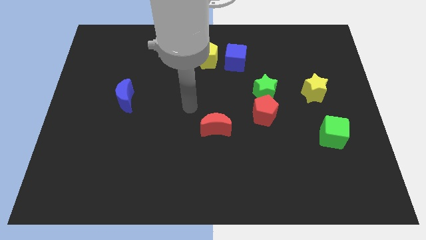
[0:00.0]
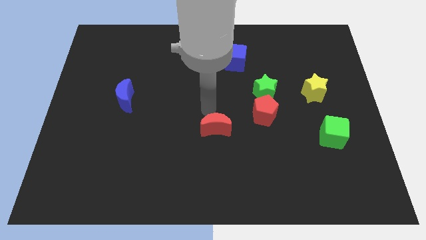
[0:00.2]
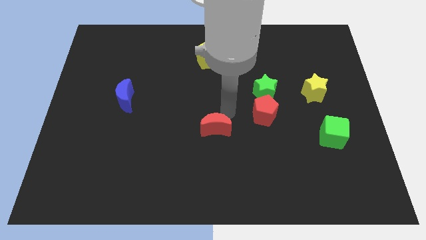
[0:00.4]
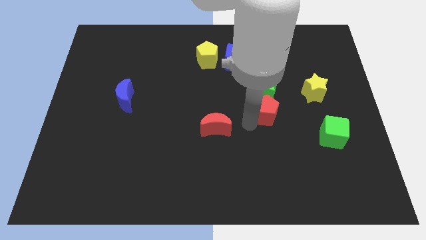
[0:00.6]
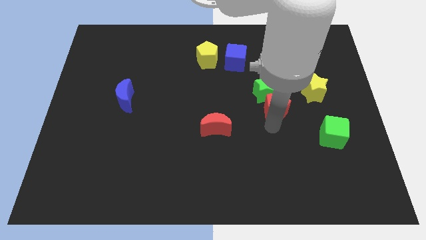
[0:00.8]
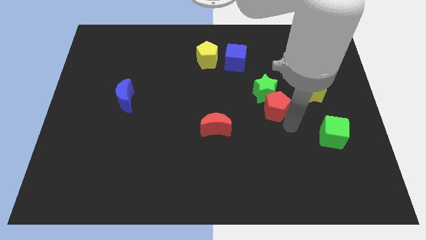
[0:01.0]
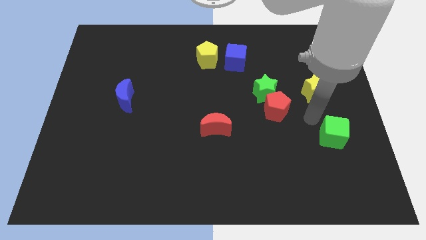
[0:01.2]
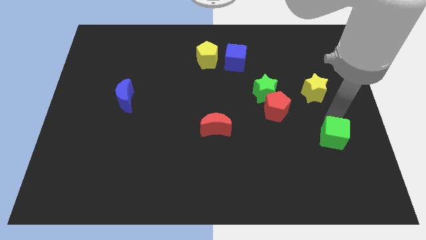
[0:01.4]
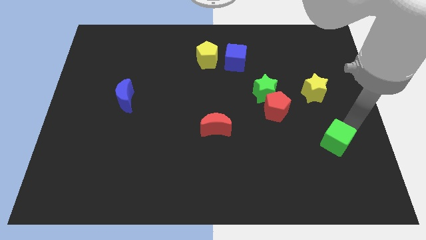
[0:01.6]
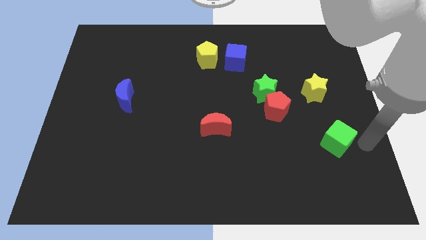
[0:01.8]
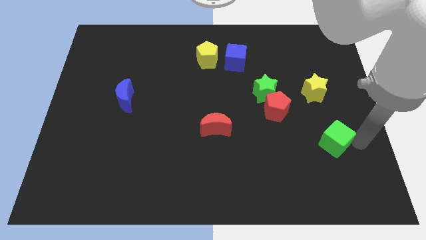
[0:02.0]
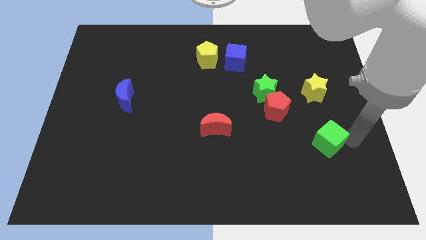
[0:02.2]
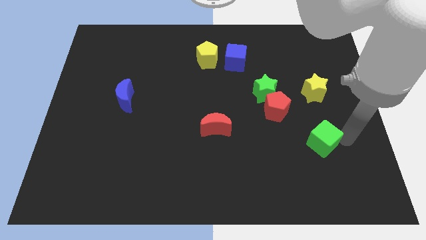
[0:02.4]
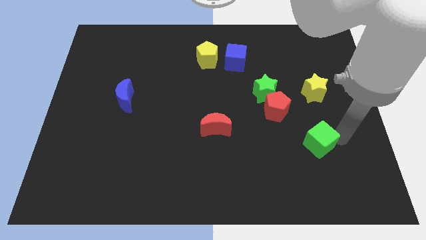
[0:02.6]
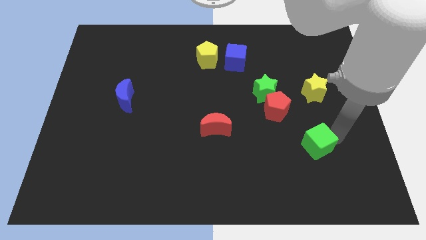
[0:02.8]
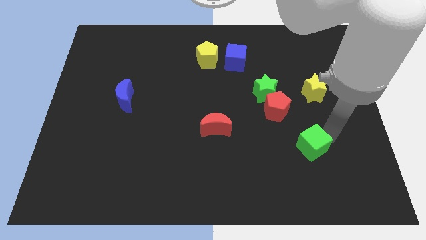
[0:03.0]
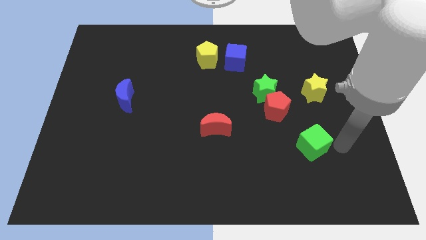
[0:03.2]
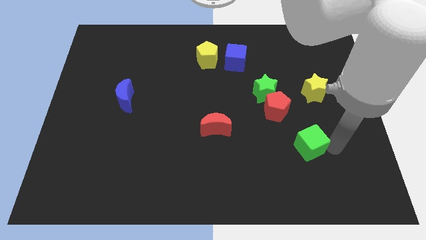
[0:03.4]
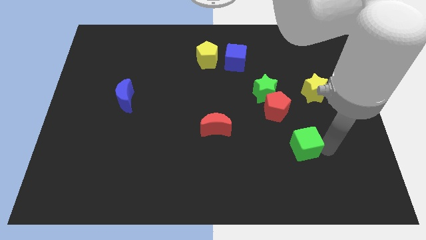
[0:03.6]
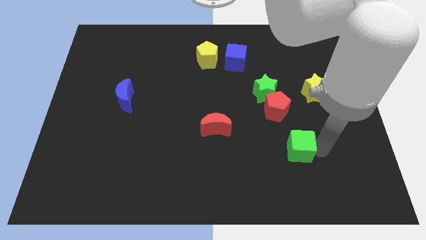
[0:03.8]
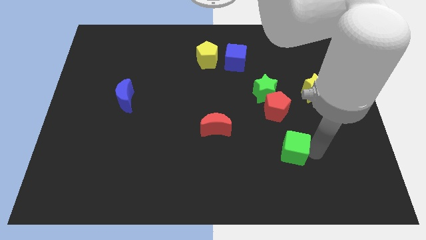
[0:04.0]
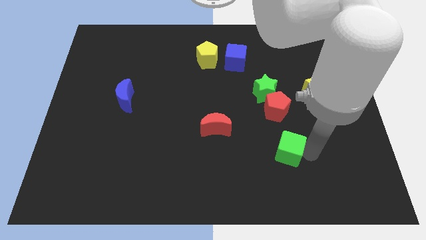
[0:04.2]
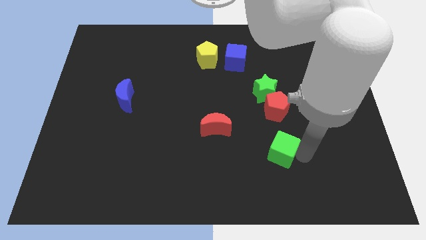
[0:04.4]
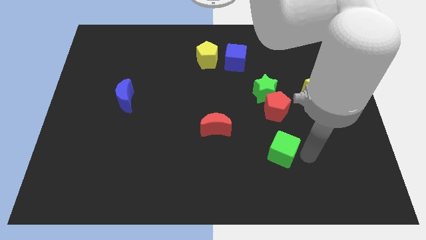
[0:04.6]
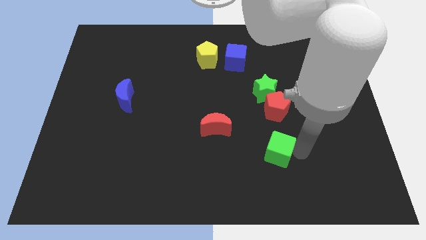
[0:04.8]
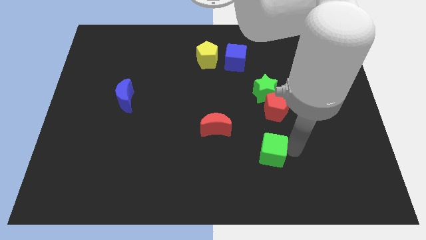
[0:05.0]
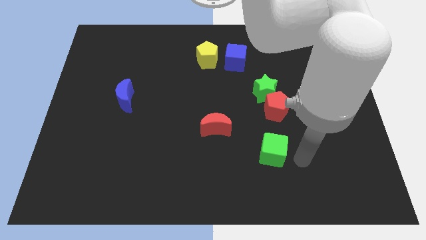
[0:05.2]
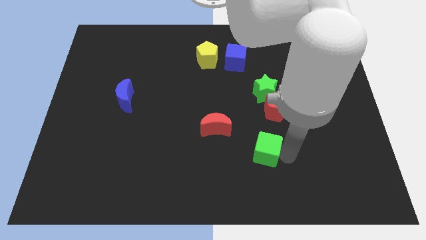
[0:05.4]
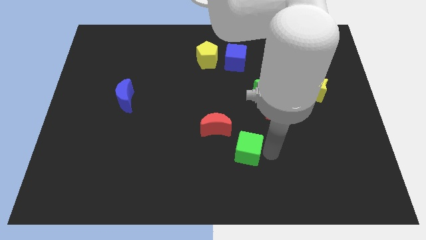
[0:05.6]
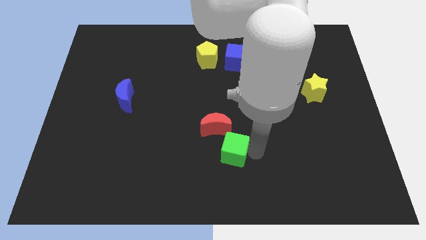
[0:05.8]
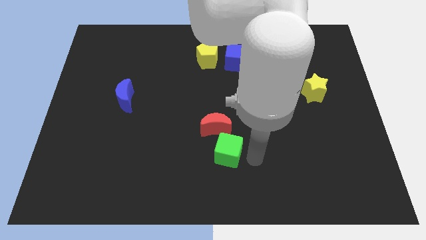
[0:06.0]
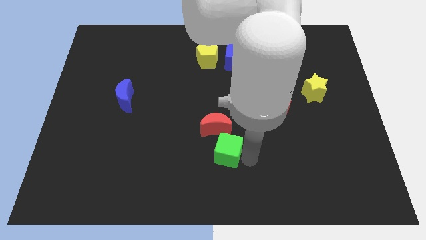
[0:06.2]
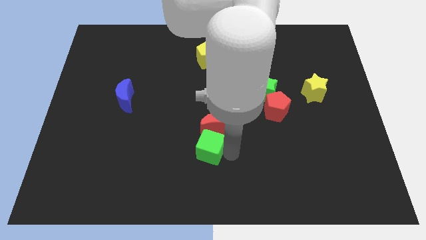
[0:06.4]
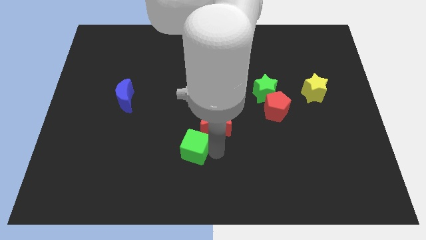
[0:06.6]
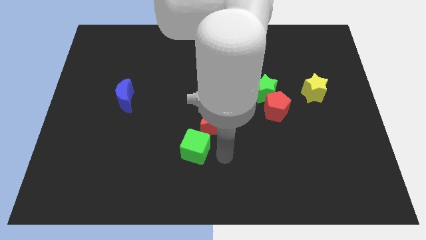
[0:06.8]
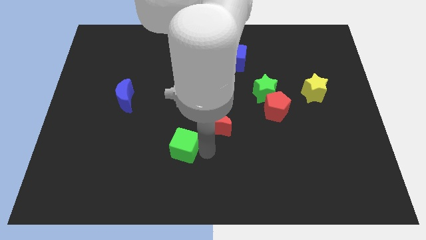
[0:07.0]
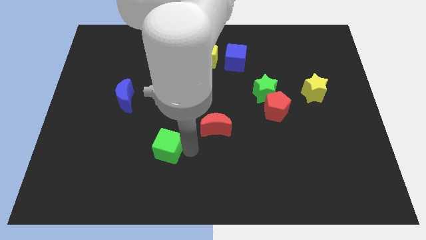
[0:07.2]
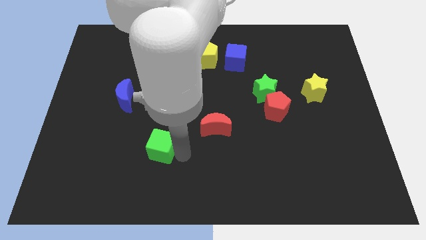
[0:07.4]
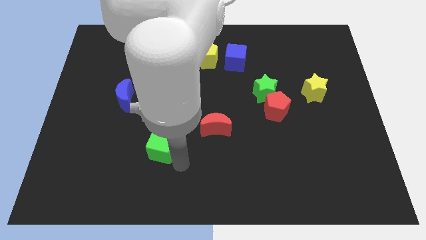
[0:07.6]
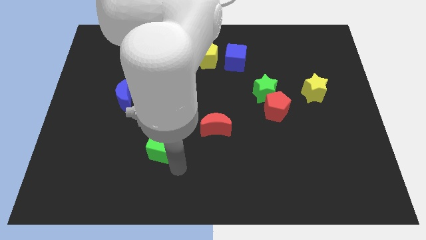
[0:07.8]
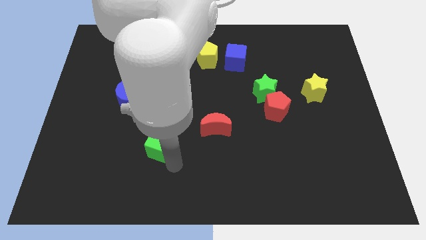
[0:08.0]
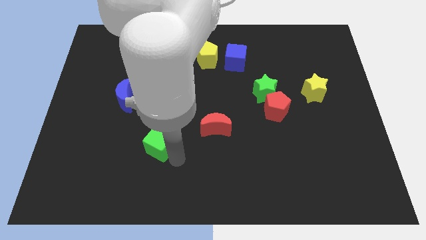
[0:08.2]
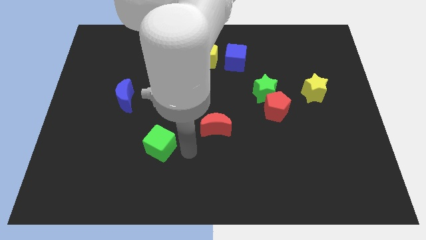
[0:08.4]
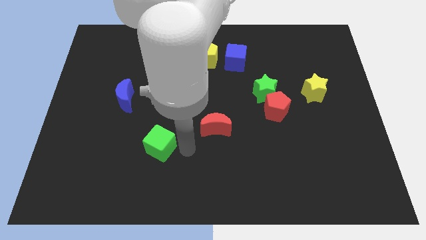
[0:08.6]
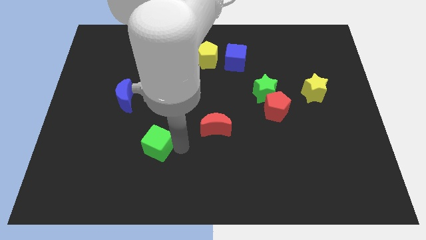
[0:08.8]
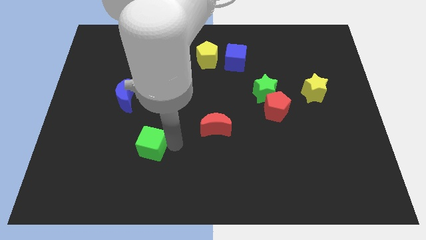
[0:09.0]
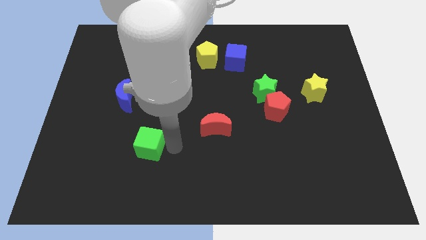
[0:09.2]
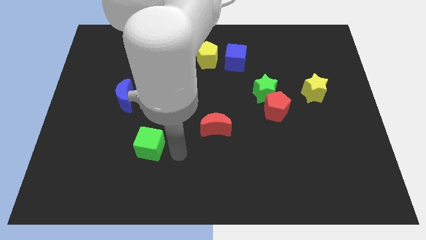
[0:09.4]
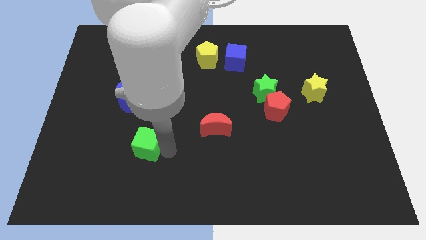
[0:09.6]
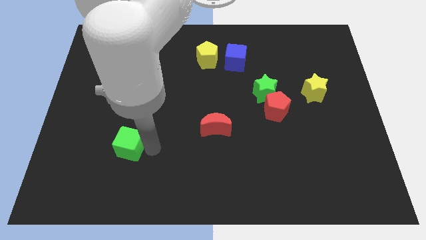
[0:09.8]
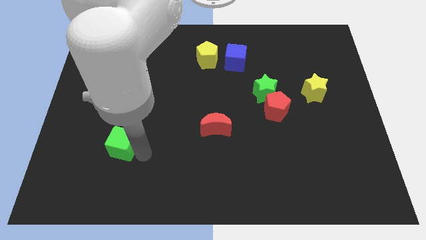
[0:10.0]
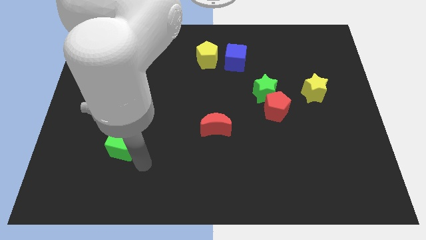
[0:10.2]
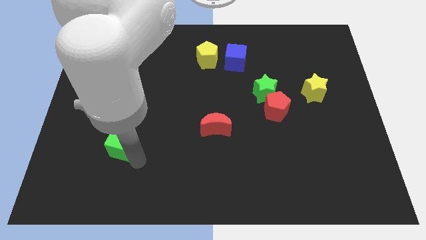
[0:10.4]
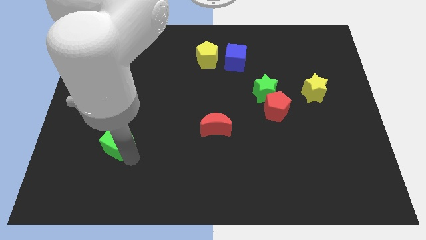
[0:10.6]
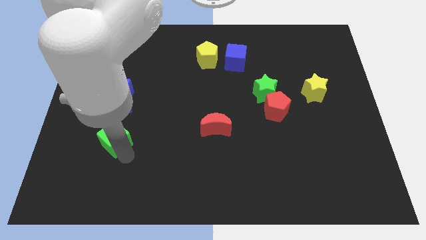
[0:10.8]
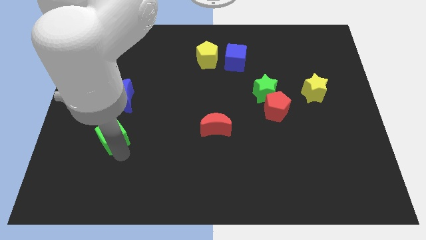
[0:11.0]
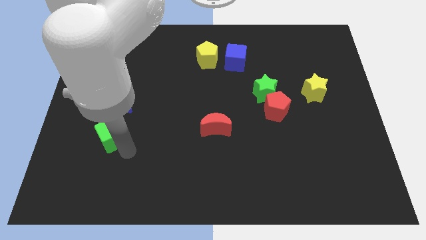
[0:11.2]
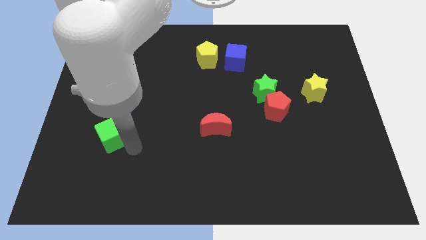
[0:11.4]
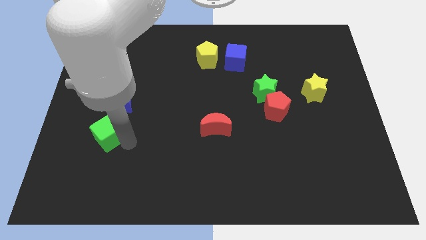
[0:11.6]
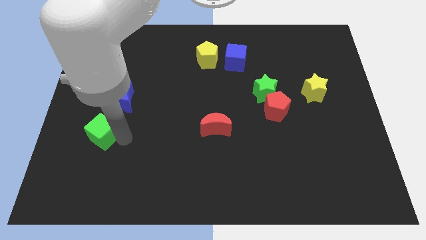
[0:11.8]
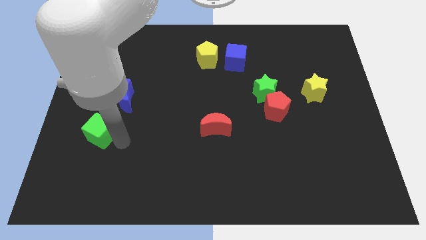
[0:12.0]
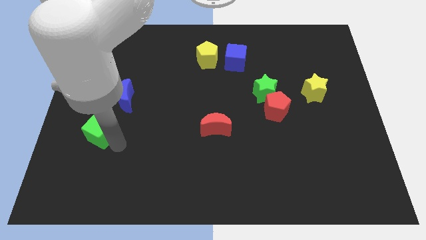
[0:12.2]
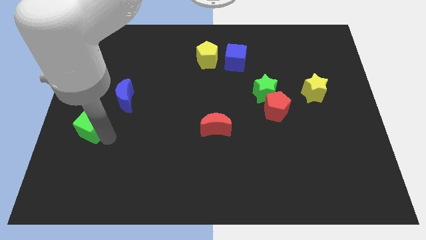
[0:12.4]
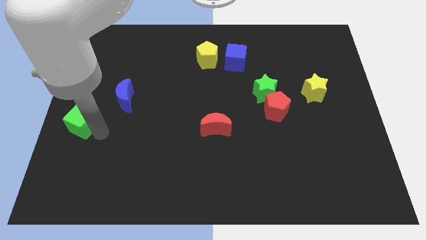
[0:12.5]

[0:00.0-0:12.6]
push the green cube to the center left
